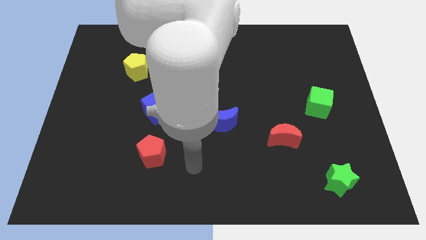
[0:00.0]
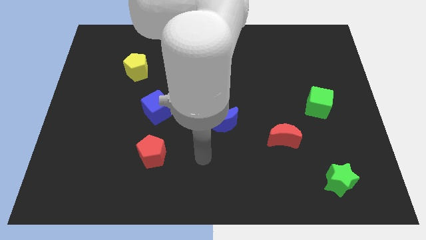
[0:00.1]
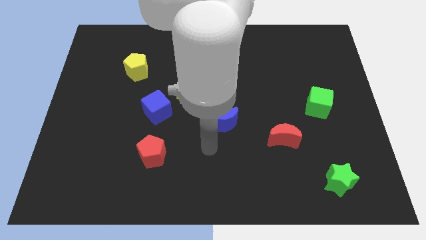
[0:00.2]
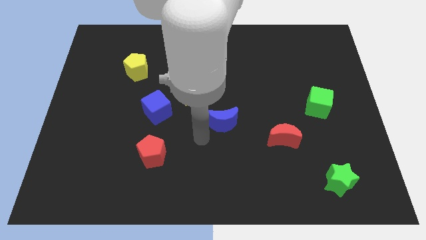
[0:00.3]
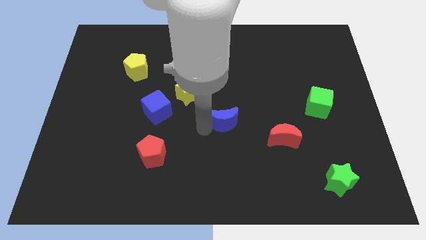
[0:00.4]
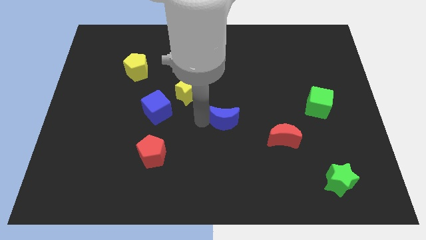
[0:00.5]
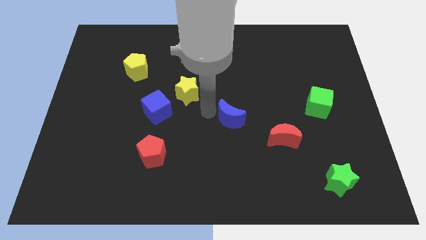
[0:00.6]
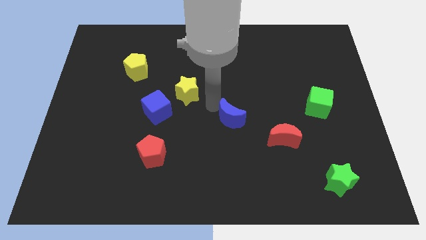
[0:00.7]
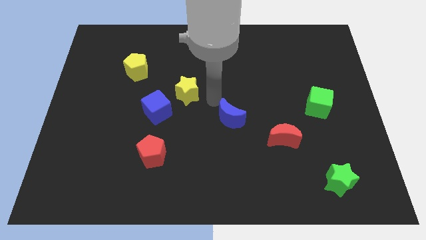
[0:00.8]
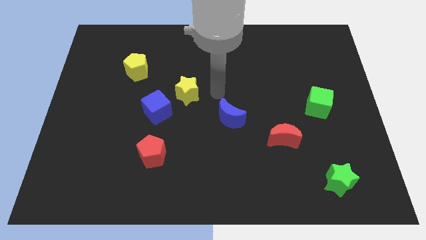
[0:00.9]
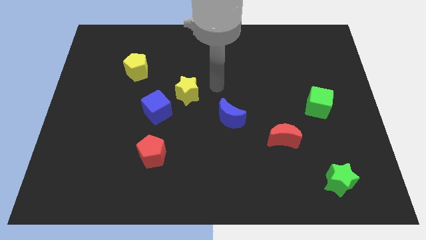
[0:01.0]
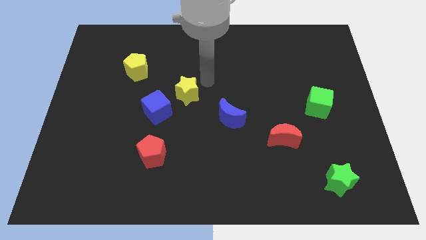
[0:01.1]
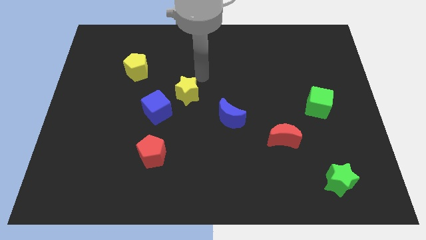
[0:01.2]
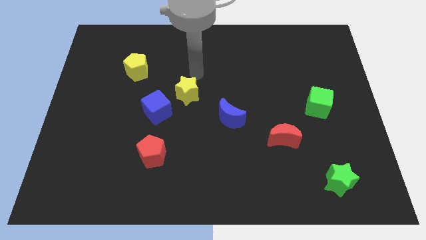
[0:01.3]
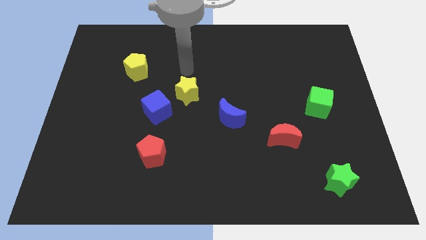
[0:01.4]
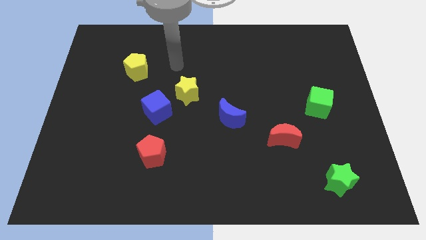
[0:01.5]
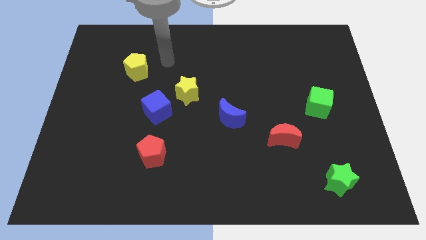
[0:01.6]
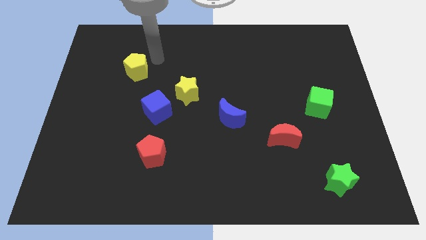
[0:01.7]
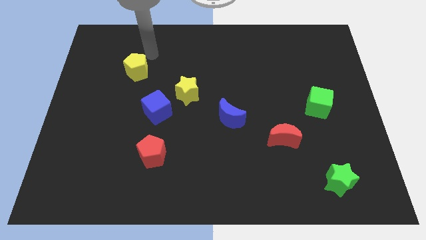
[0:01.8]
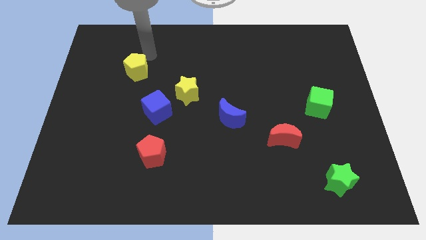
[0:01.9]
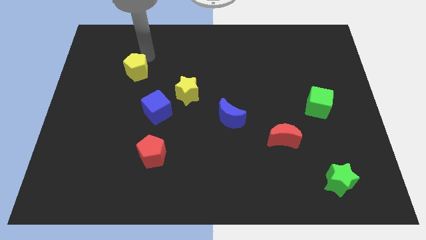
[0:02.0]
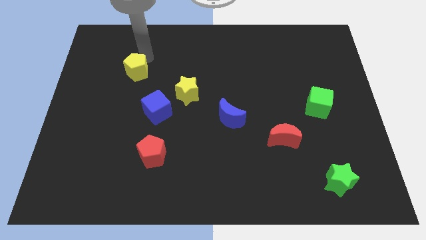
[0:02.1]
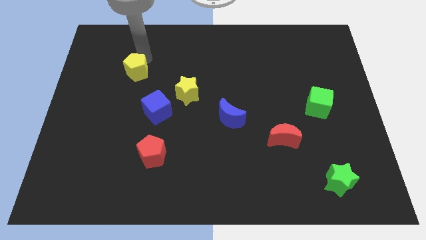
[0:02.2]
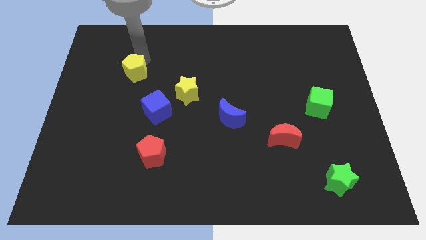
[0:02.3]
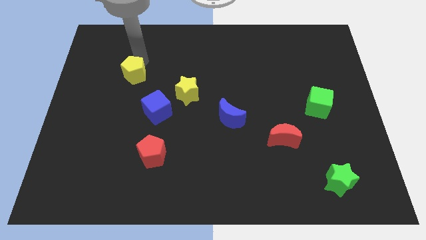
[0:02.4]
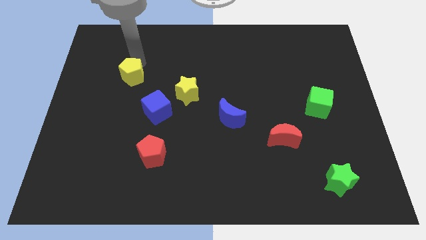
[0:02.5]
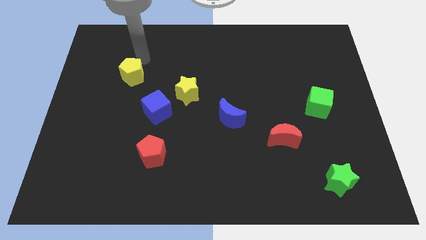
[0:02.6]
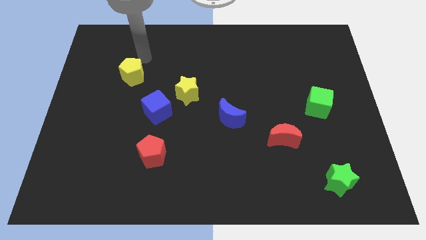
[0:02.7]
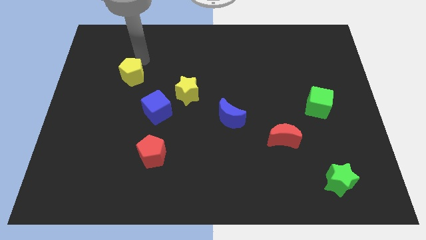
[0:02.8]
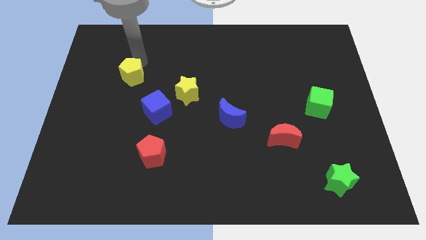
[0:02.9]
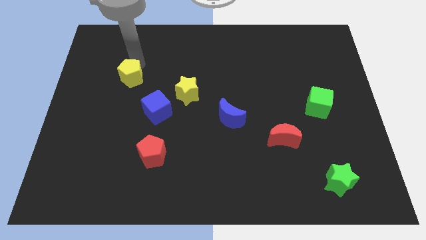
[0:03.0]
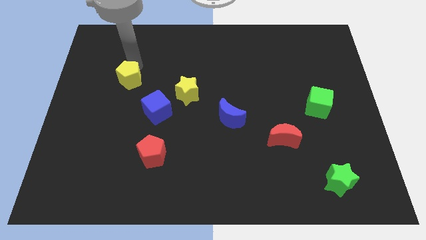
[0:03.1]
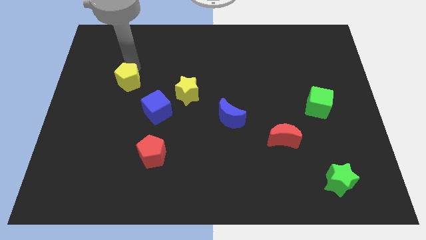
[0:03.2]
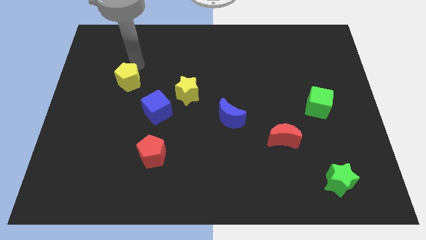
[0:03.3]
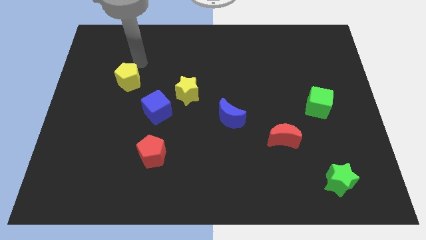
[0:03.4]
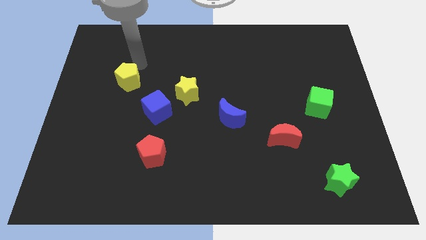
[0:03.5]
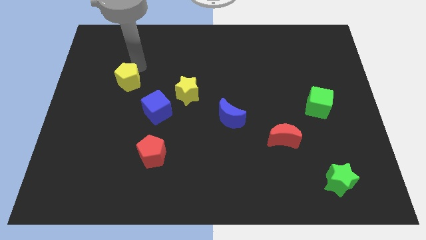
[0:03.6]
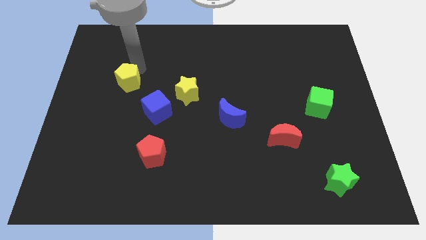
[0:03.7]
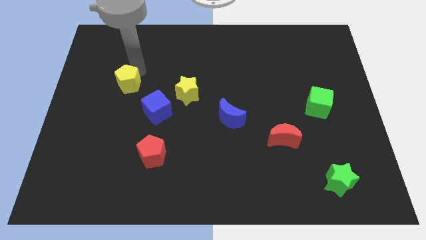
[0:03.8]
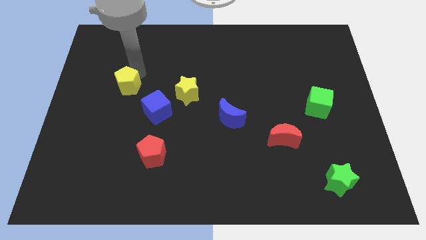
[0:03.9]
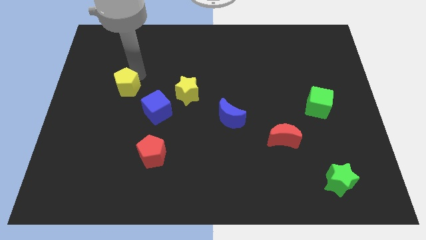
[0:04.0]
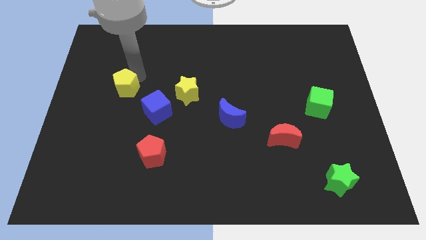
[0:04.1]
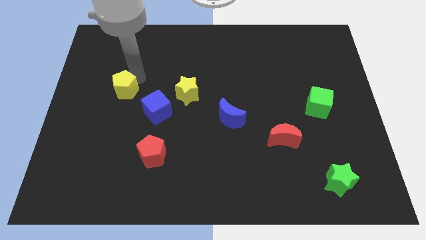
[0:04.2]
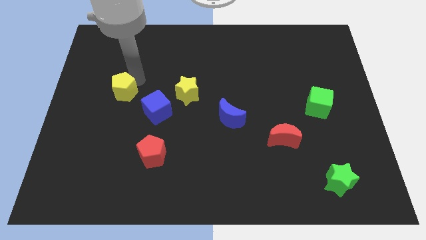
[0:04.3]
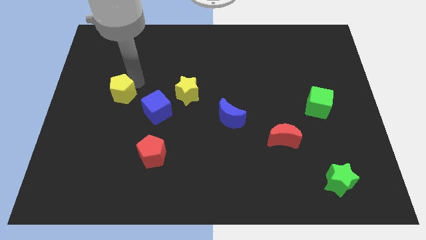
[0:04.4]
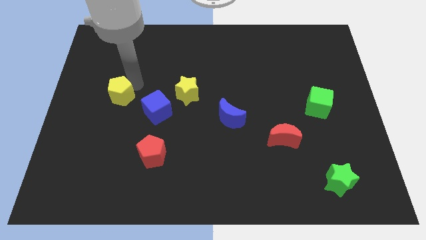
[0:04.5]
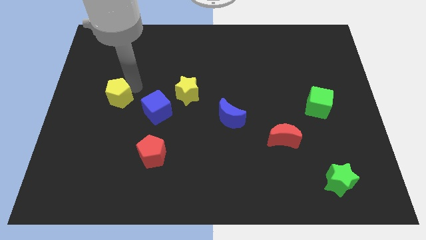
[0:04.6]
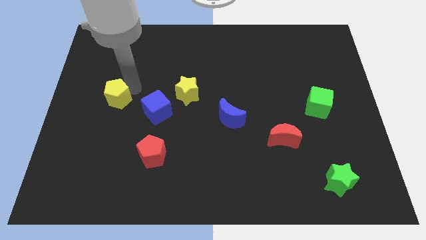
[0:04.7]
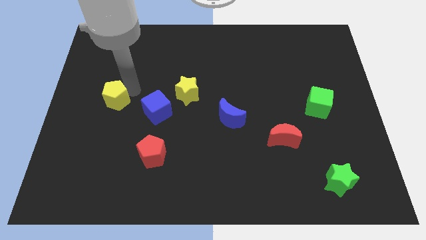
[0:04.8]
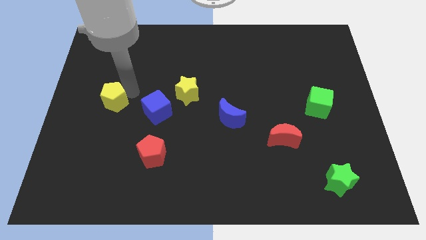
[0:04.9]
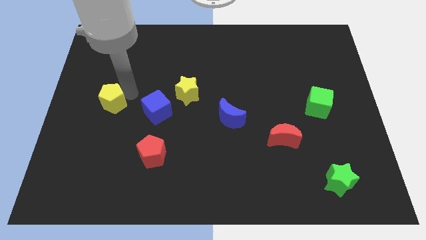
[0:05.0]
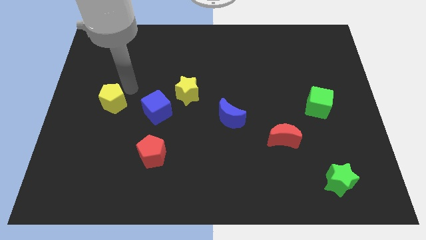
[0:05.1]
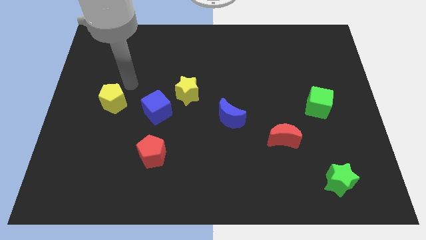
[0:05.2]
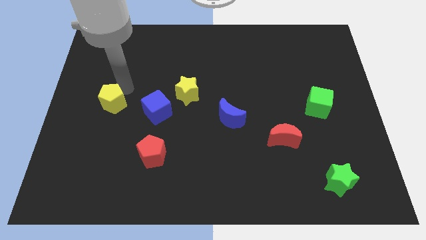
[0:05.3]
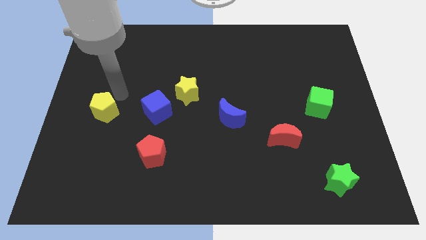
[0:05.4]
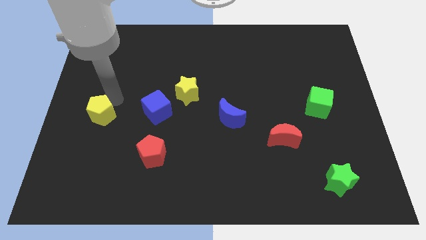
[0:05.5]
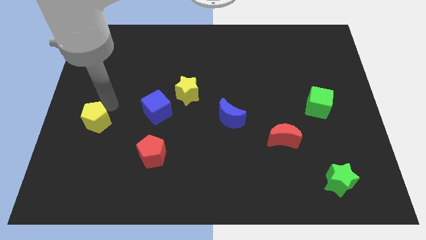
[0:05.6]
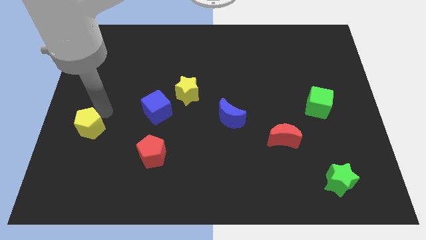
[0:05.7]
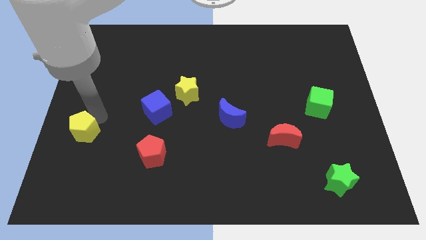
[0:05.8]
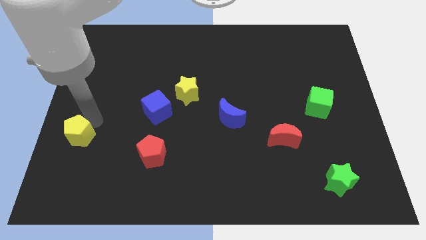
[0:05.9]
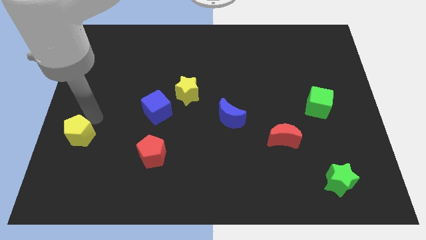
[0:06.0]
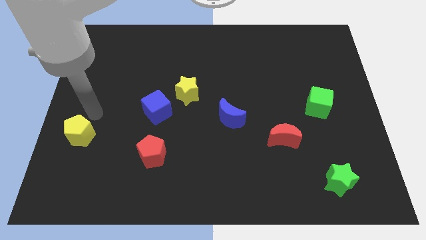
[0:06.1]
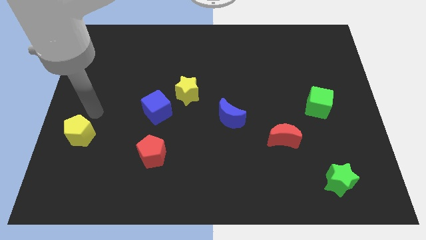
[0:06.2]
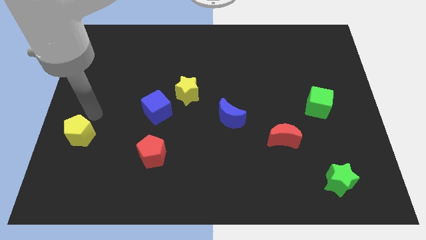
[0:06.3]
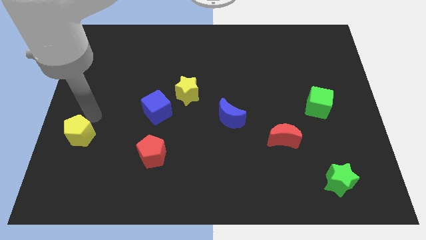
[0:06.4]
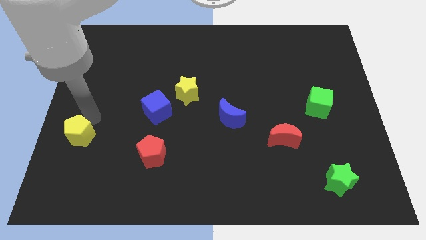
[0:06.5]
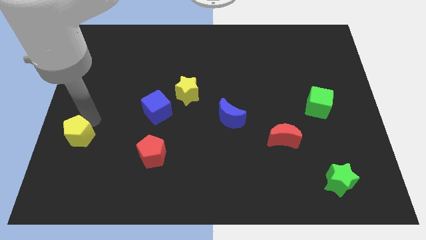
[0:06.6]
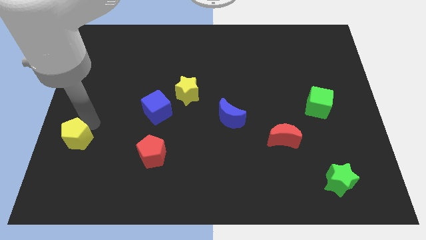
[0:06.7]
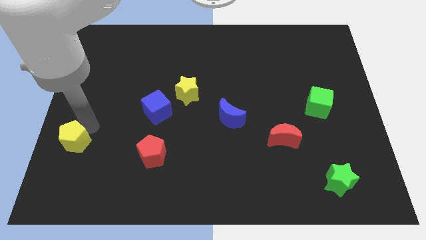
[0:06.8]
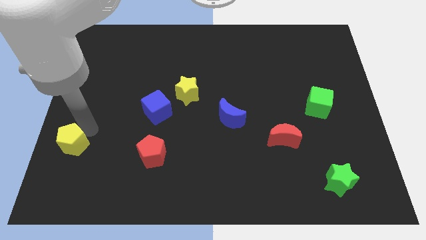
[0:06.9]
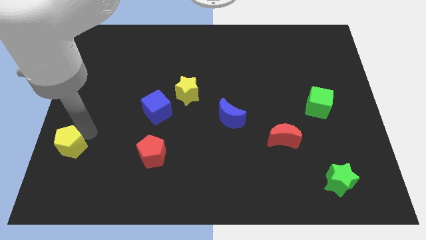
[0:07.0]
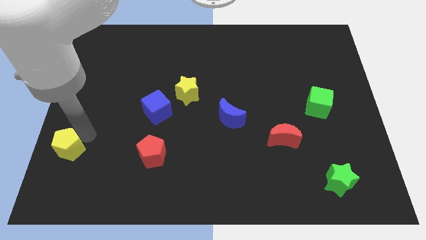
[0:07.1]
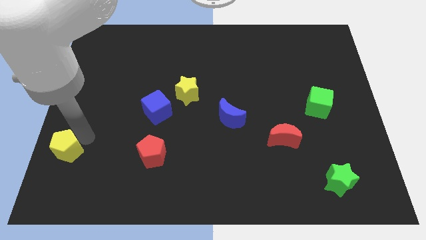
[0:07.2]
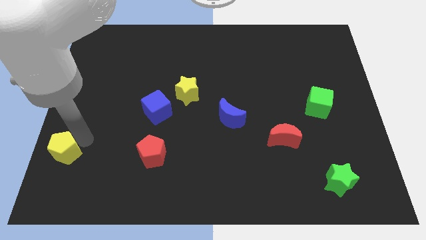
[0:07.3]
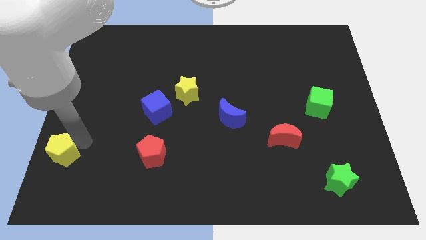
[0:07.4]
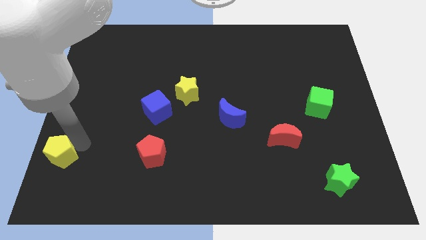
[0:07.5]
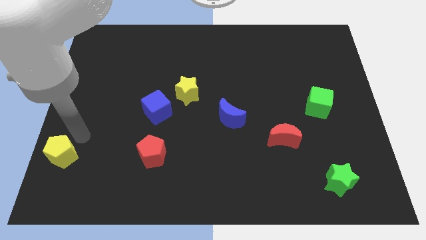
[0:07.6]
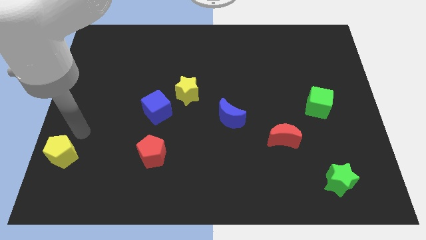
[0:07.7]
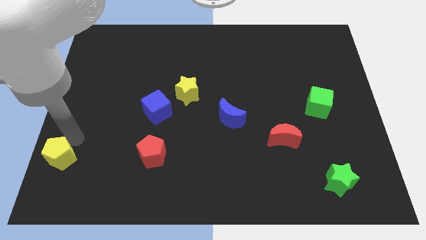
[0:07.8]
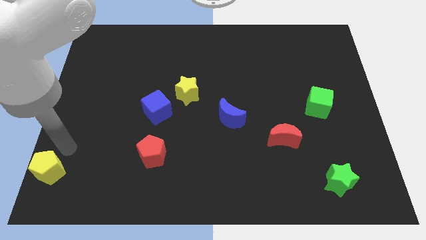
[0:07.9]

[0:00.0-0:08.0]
push the yellow pentagon to the bottom left of the board
